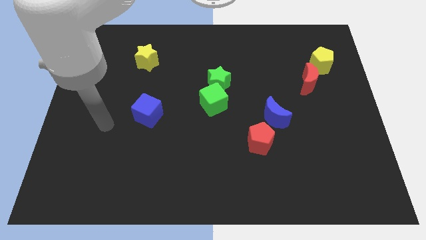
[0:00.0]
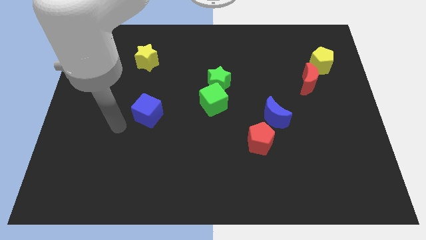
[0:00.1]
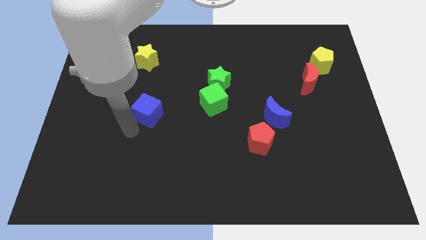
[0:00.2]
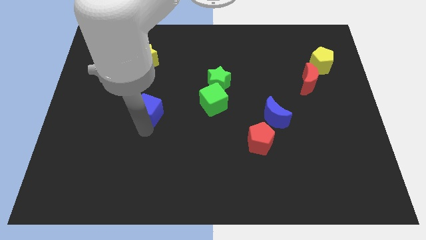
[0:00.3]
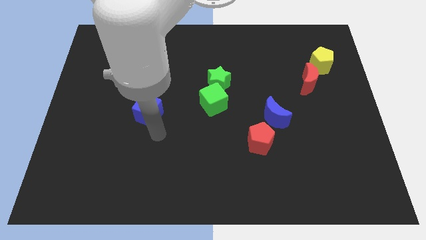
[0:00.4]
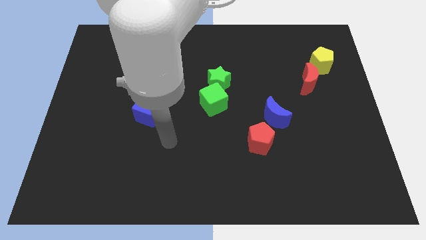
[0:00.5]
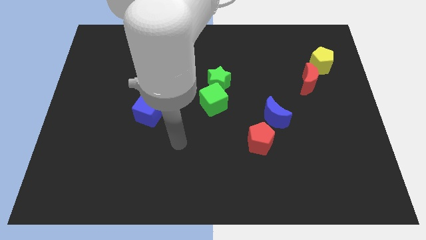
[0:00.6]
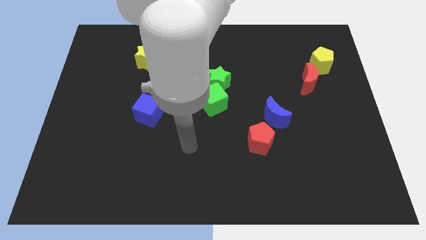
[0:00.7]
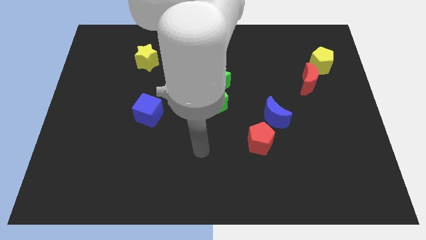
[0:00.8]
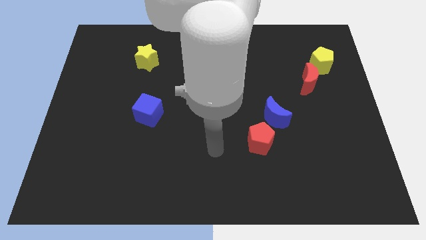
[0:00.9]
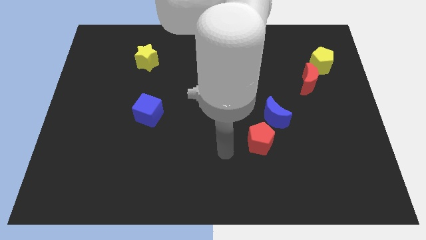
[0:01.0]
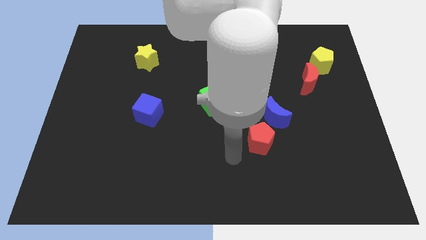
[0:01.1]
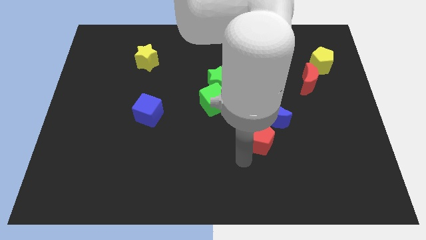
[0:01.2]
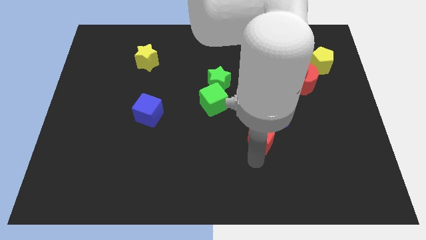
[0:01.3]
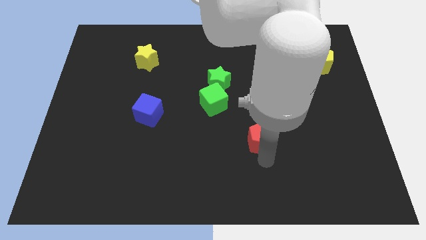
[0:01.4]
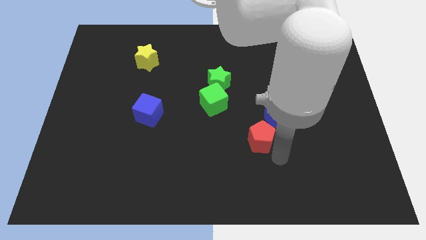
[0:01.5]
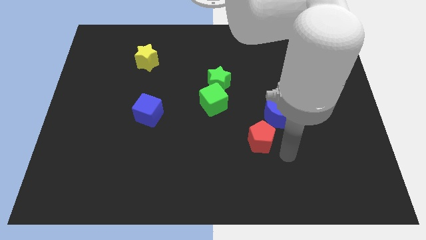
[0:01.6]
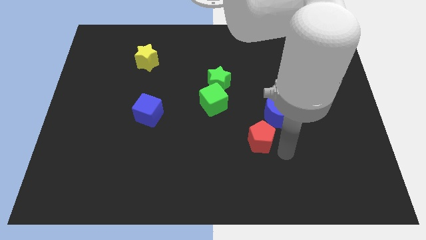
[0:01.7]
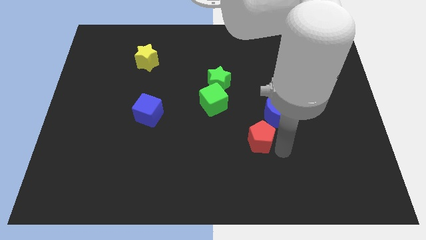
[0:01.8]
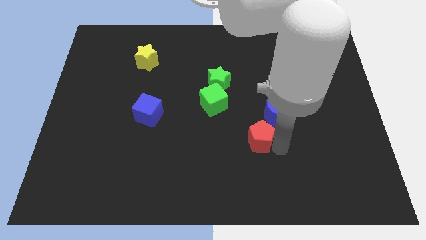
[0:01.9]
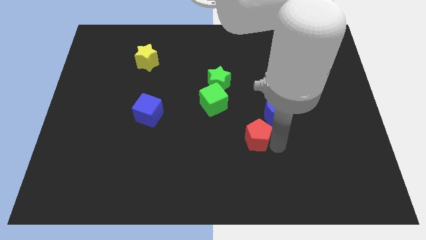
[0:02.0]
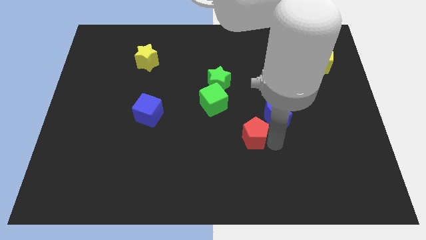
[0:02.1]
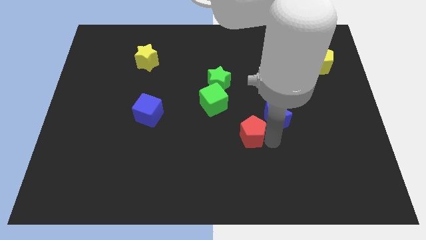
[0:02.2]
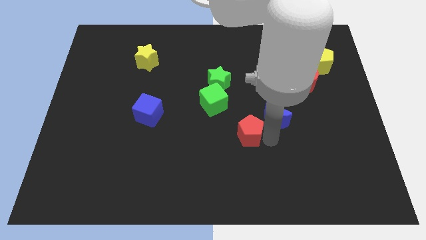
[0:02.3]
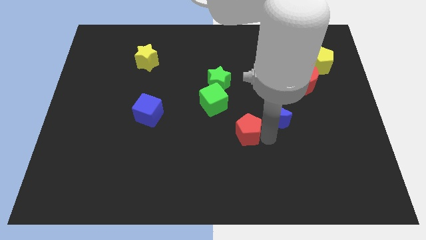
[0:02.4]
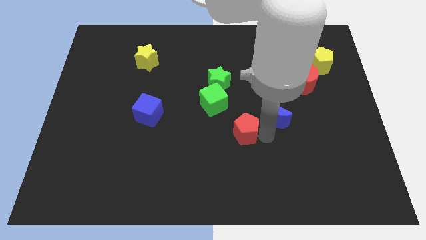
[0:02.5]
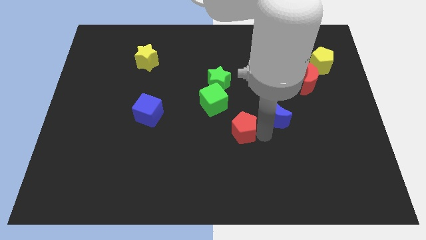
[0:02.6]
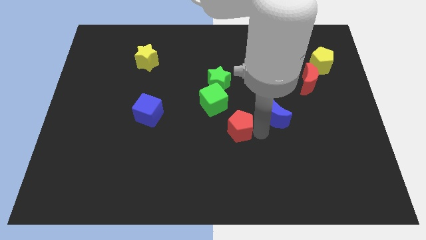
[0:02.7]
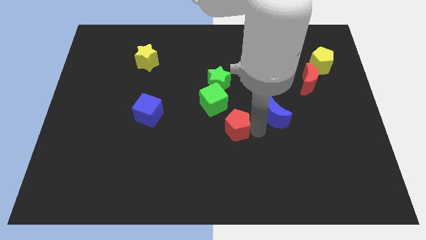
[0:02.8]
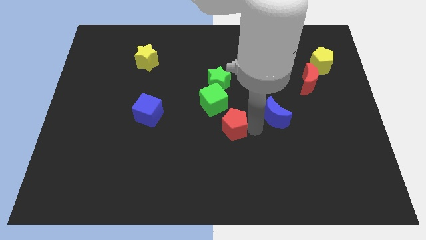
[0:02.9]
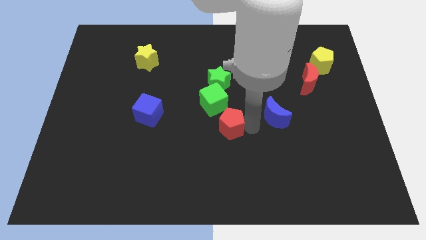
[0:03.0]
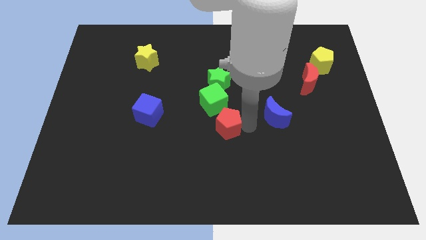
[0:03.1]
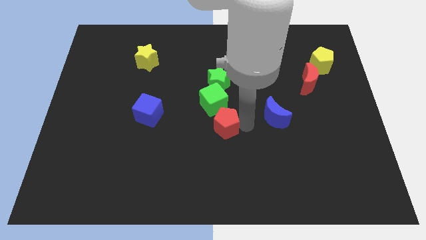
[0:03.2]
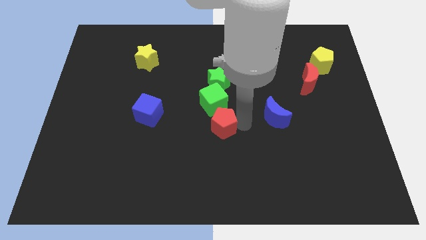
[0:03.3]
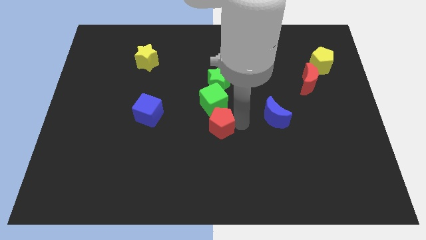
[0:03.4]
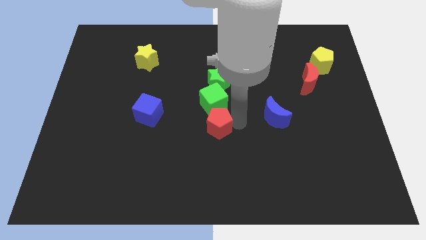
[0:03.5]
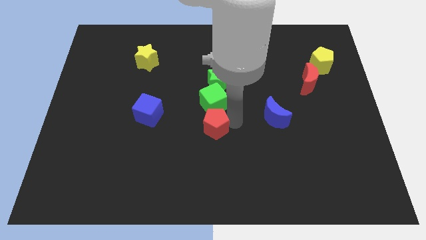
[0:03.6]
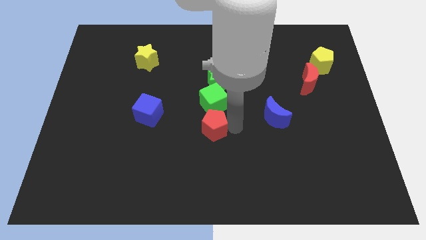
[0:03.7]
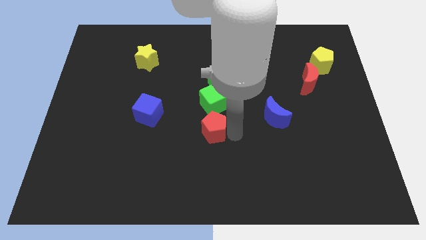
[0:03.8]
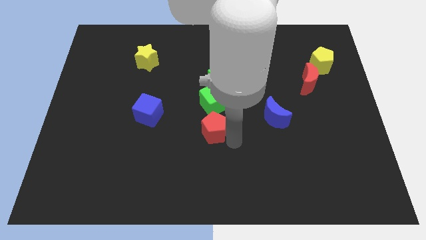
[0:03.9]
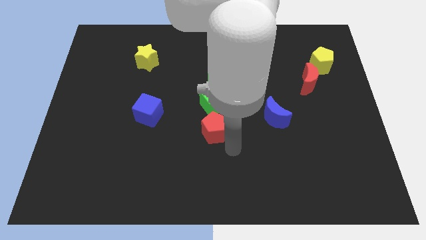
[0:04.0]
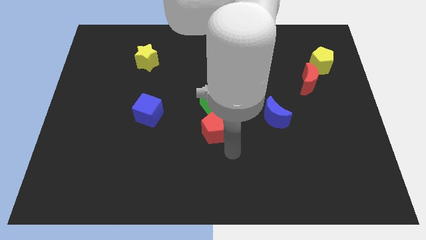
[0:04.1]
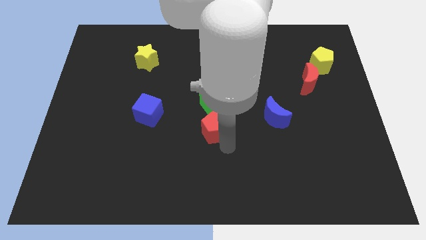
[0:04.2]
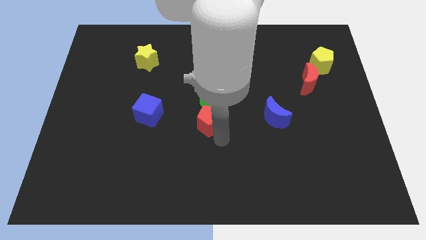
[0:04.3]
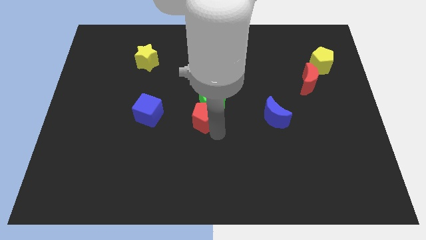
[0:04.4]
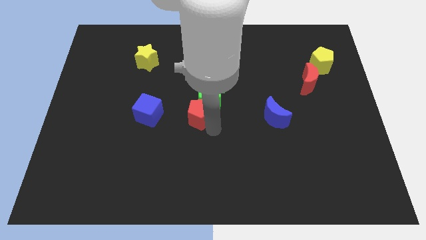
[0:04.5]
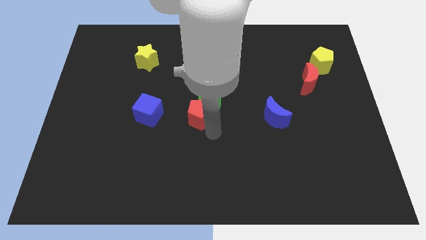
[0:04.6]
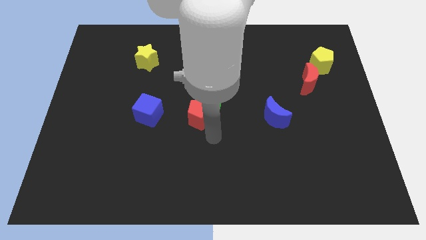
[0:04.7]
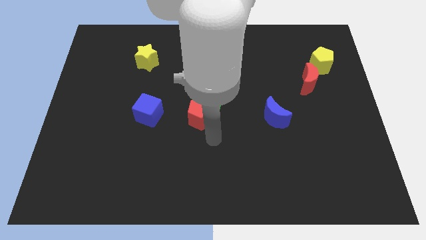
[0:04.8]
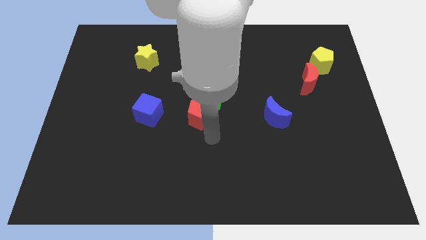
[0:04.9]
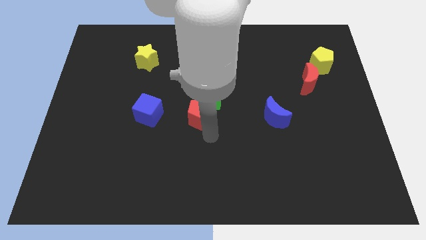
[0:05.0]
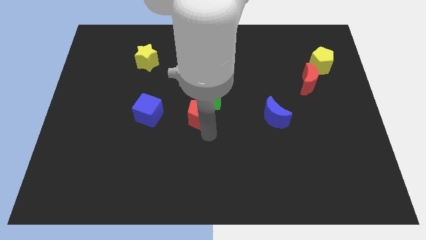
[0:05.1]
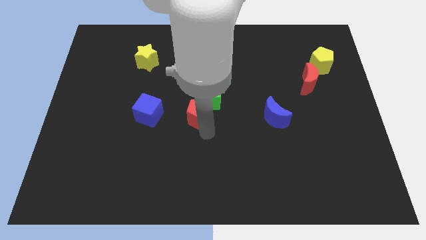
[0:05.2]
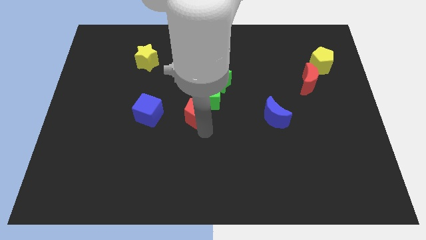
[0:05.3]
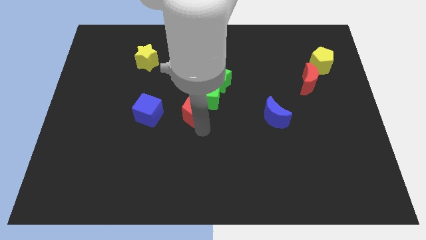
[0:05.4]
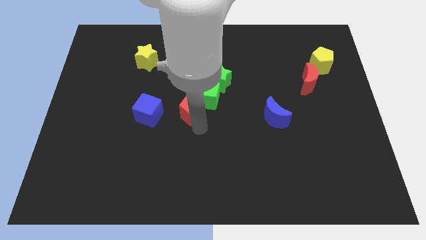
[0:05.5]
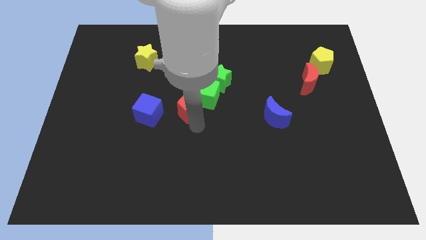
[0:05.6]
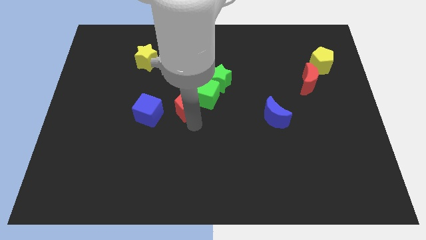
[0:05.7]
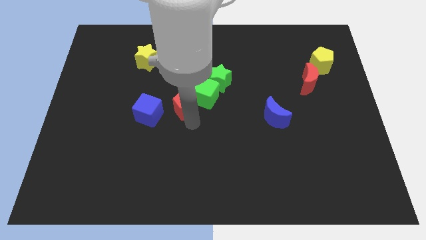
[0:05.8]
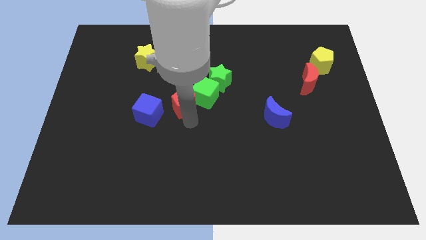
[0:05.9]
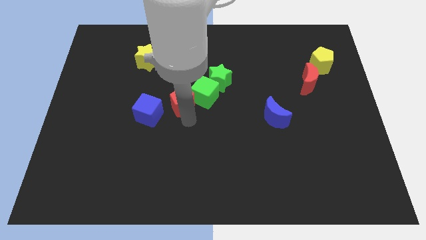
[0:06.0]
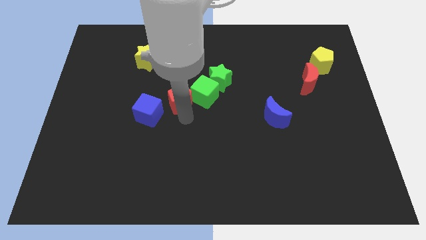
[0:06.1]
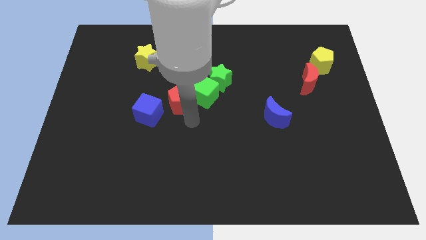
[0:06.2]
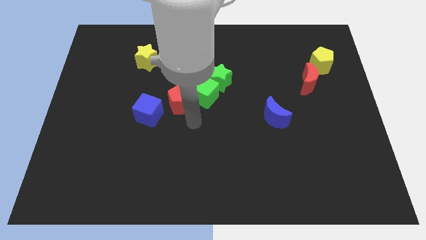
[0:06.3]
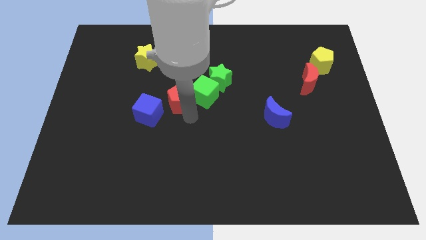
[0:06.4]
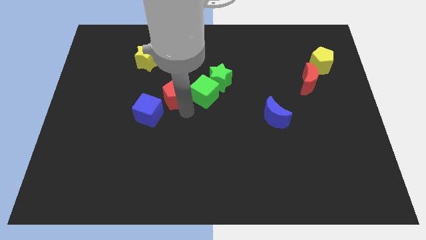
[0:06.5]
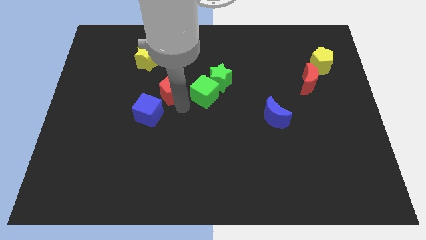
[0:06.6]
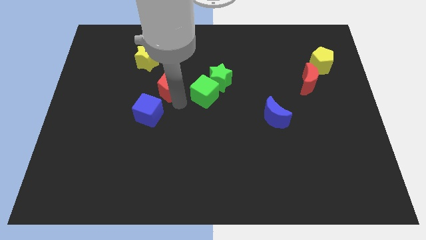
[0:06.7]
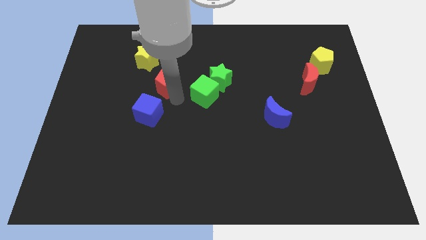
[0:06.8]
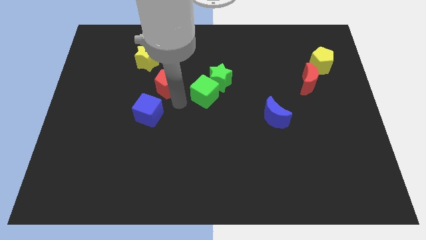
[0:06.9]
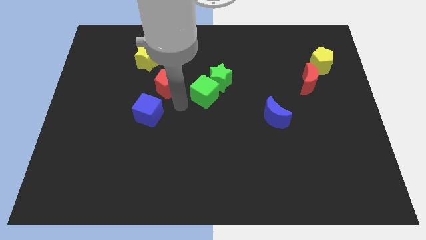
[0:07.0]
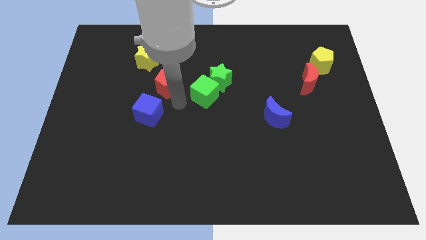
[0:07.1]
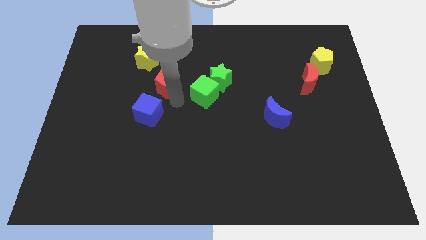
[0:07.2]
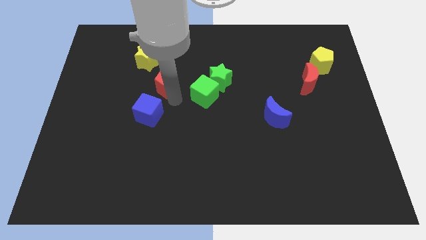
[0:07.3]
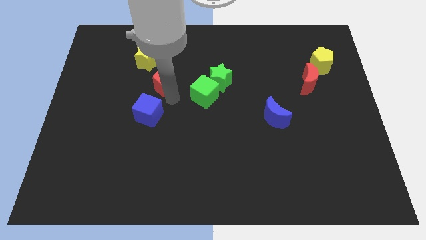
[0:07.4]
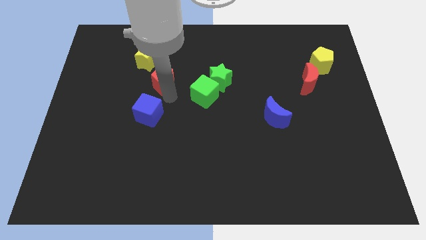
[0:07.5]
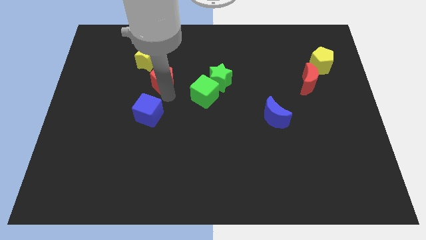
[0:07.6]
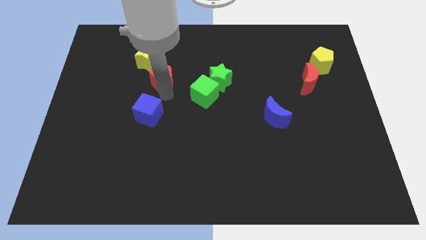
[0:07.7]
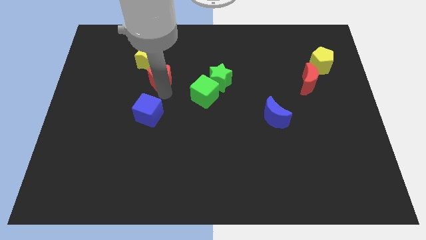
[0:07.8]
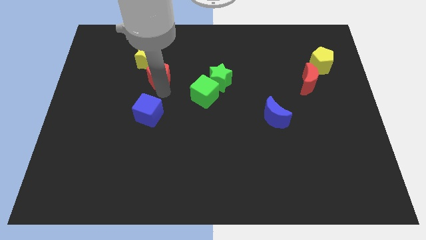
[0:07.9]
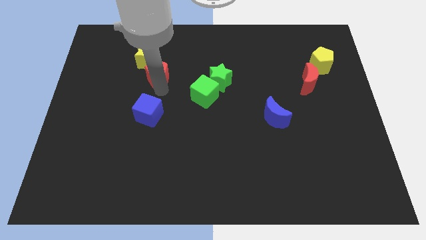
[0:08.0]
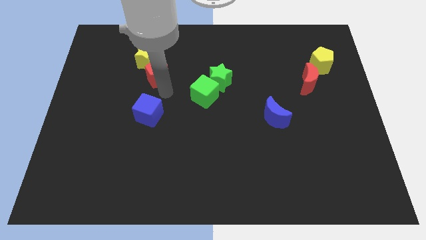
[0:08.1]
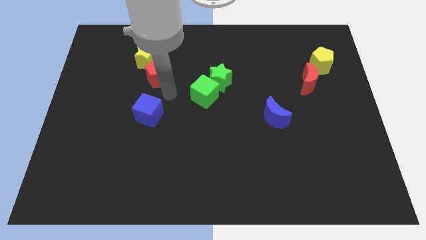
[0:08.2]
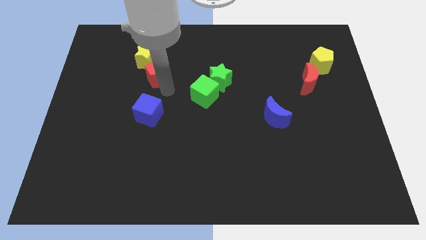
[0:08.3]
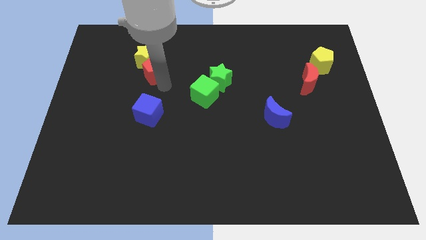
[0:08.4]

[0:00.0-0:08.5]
push the red pentagon next to the yellow star

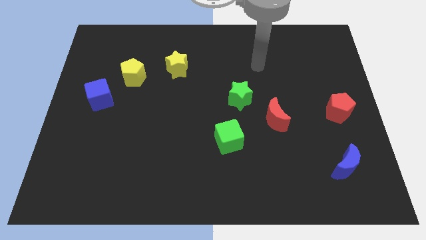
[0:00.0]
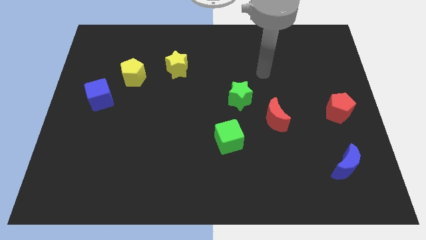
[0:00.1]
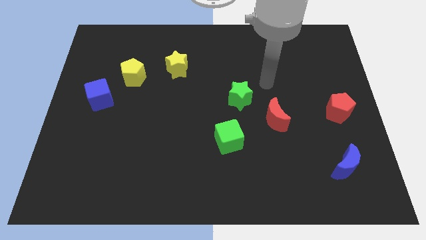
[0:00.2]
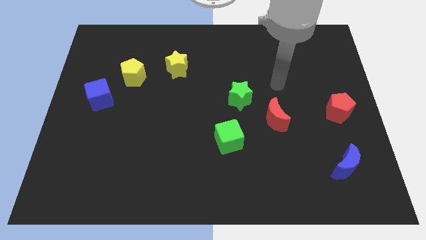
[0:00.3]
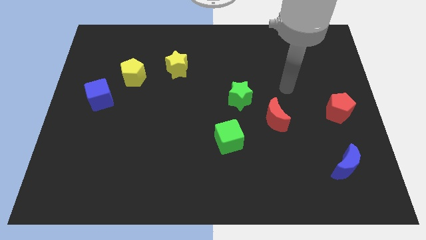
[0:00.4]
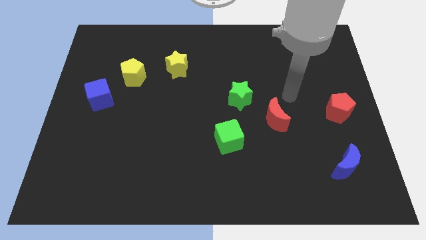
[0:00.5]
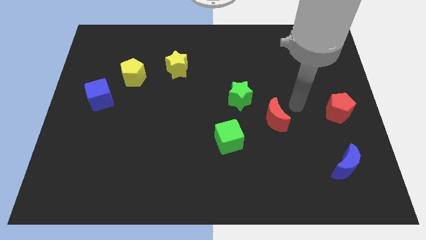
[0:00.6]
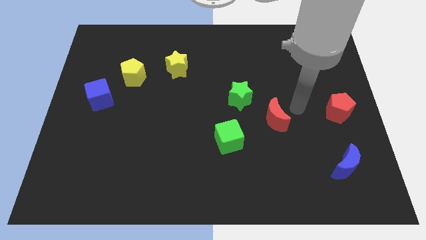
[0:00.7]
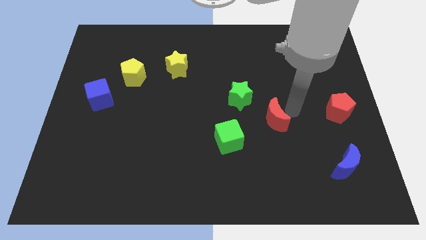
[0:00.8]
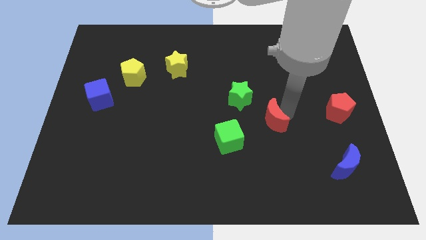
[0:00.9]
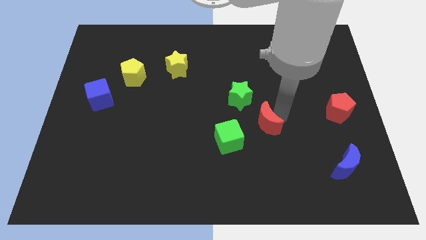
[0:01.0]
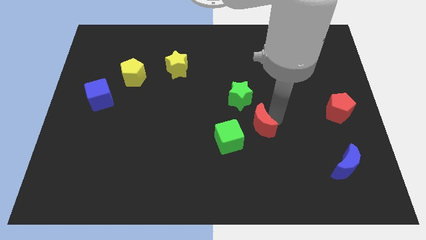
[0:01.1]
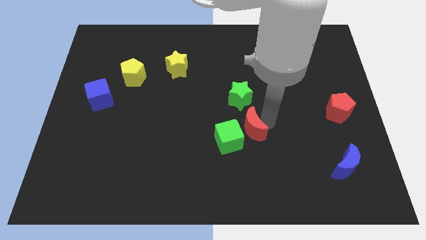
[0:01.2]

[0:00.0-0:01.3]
put the red moon close to the green cube
